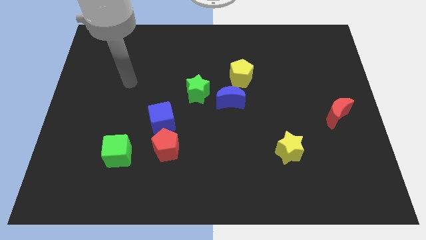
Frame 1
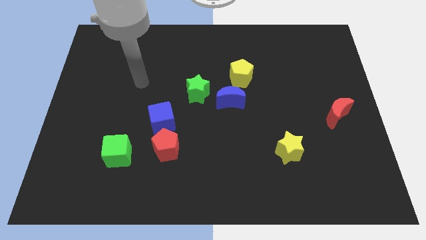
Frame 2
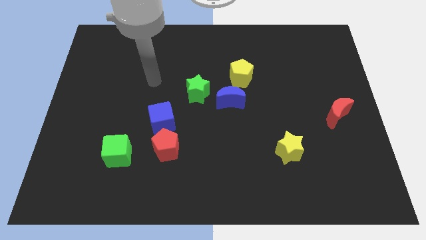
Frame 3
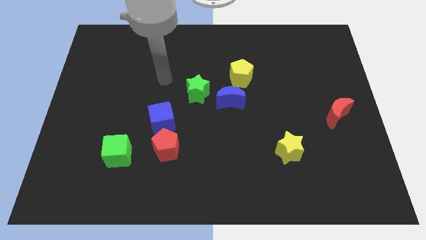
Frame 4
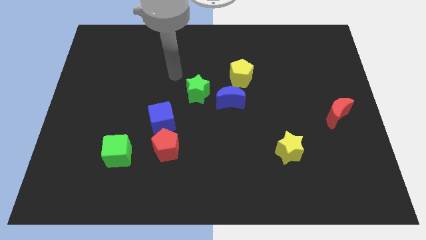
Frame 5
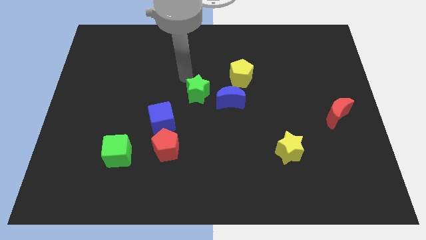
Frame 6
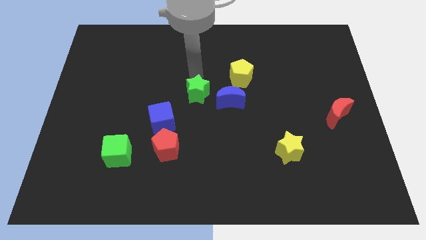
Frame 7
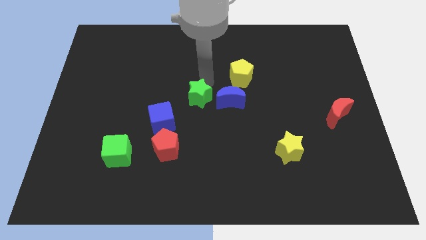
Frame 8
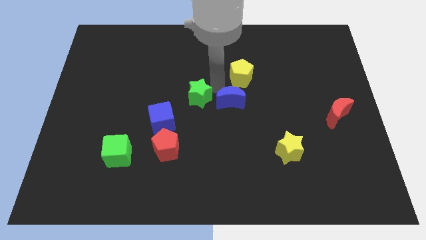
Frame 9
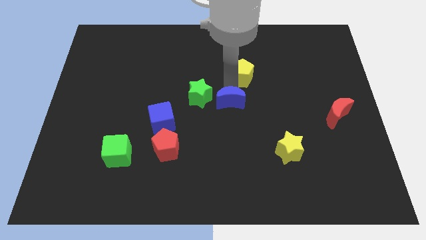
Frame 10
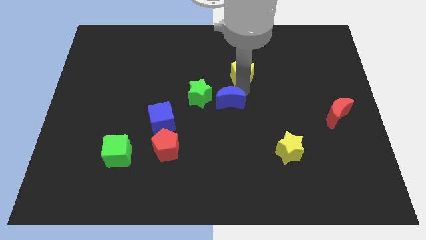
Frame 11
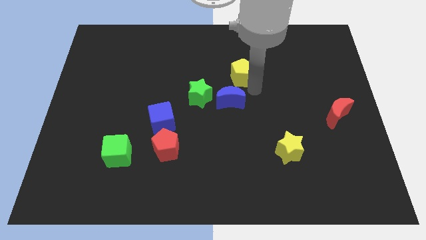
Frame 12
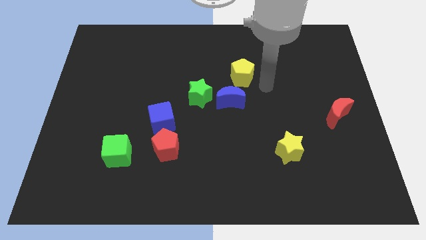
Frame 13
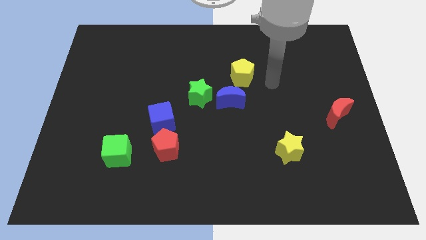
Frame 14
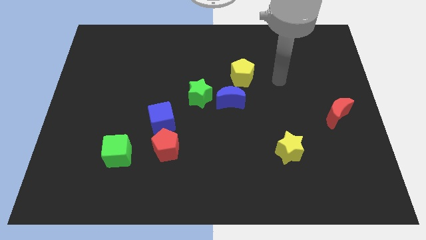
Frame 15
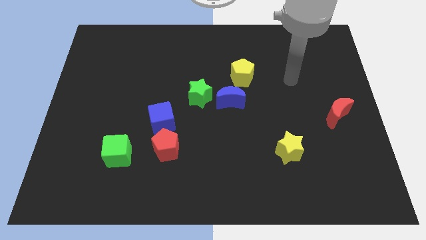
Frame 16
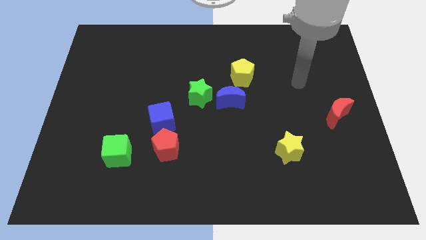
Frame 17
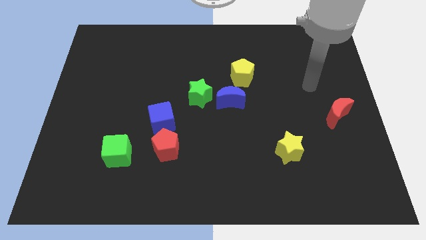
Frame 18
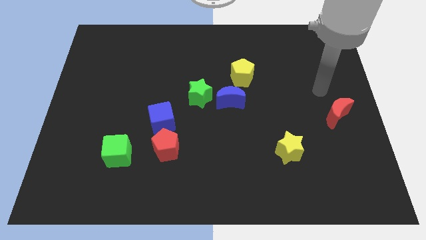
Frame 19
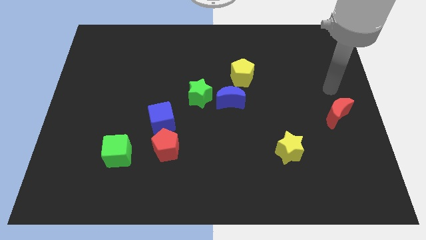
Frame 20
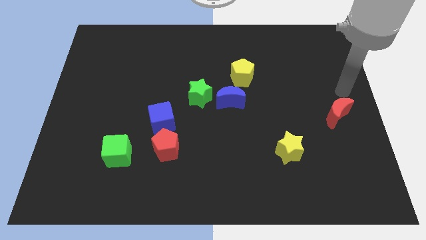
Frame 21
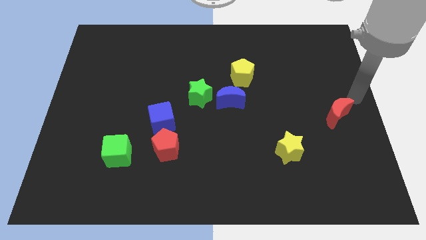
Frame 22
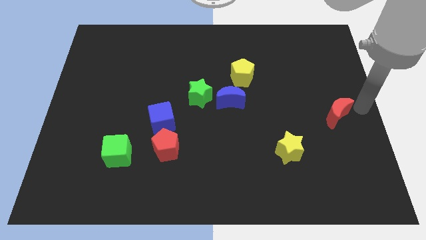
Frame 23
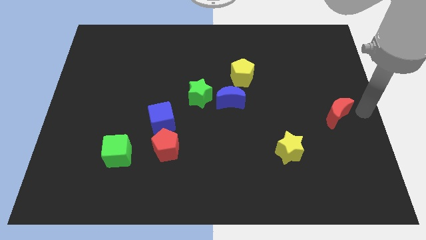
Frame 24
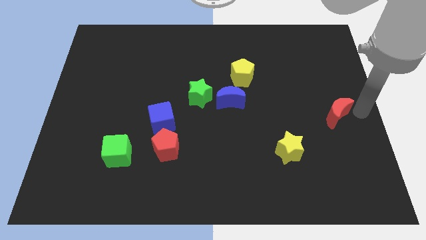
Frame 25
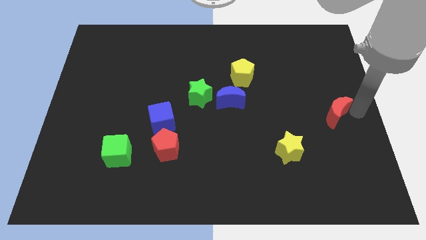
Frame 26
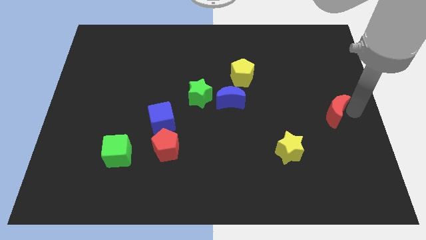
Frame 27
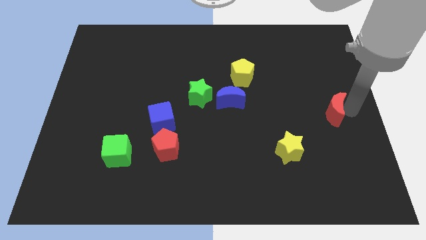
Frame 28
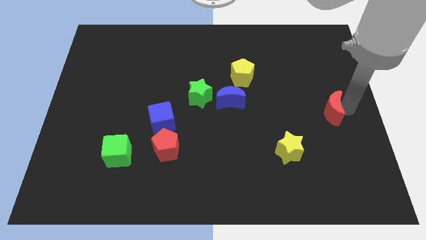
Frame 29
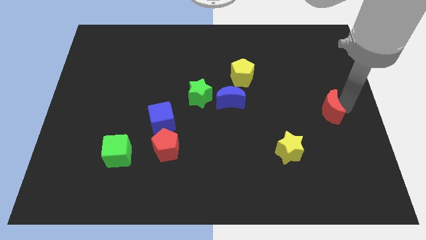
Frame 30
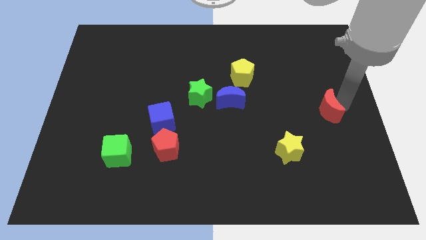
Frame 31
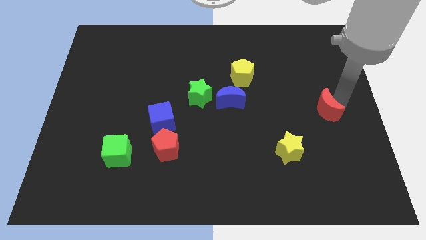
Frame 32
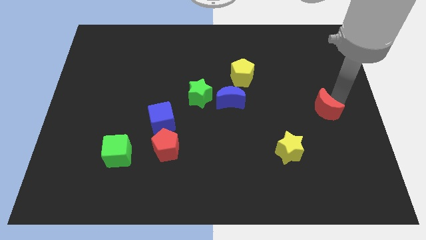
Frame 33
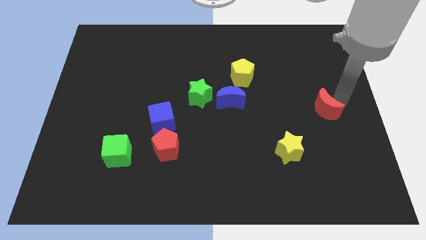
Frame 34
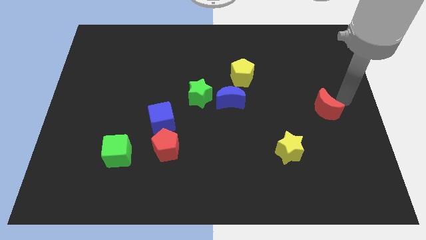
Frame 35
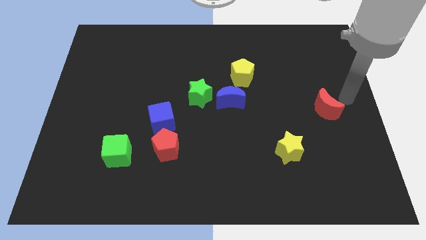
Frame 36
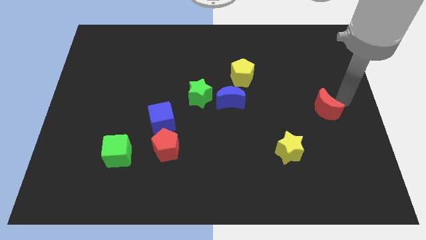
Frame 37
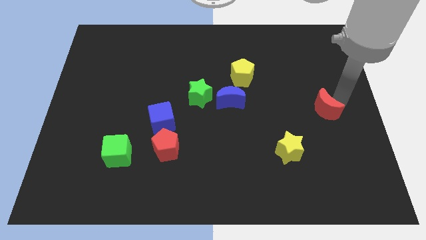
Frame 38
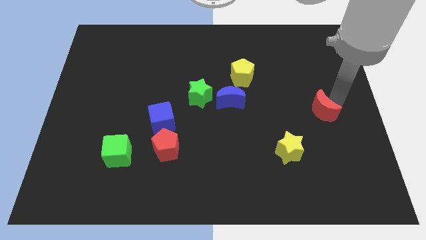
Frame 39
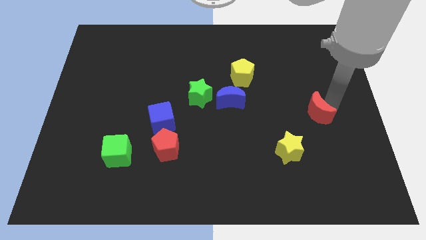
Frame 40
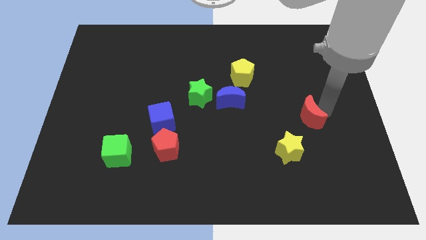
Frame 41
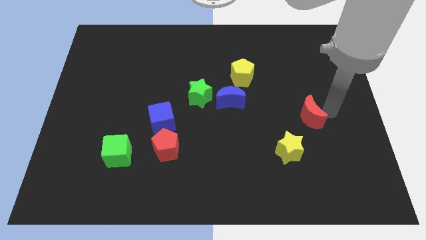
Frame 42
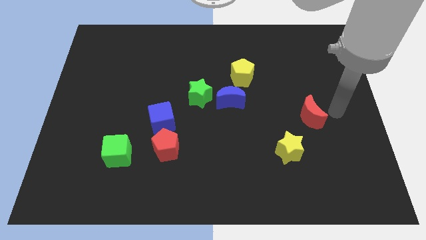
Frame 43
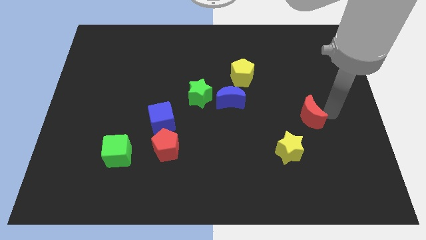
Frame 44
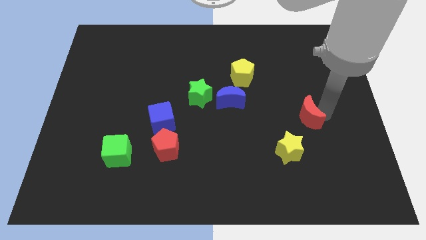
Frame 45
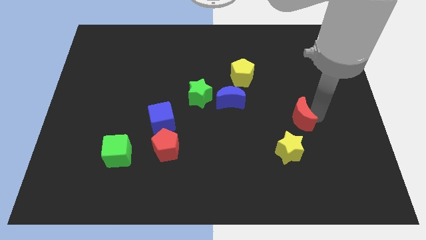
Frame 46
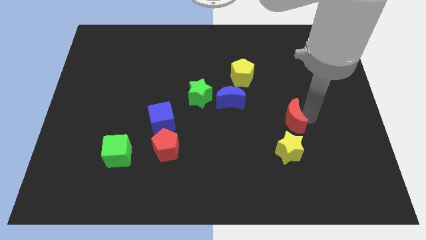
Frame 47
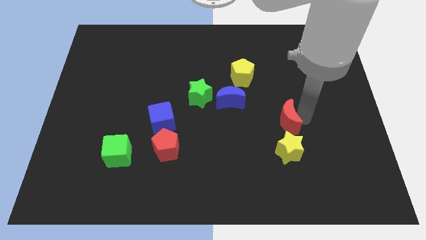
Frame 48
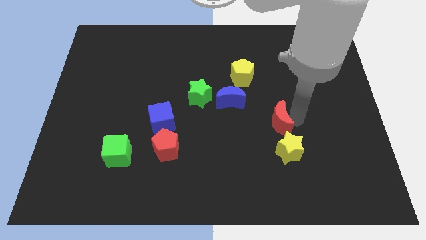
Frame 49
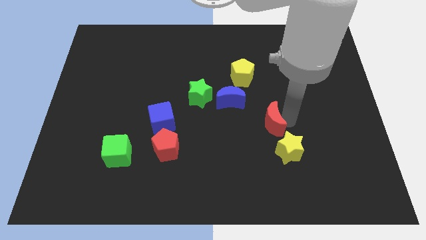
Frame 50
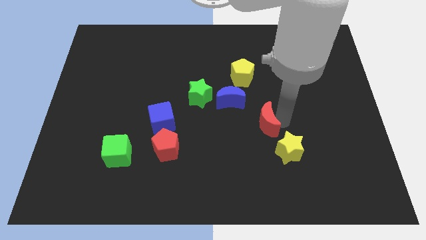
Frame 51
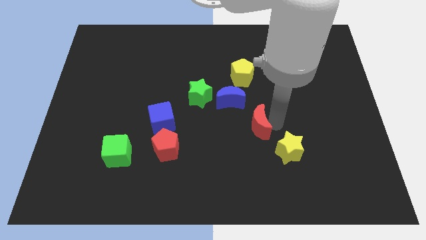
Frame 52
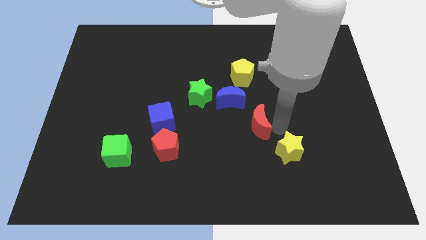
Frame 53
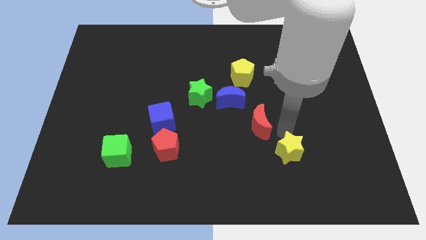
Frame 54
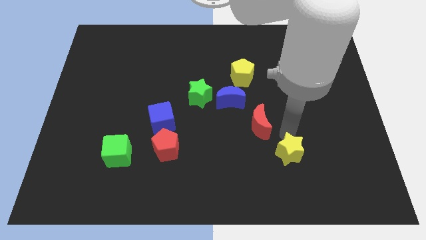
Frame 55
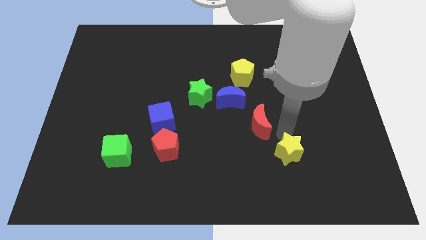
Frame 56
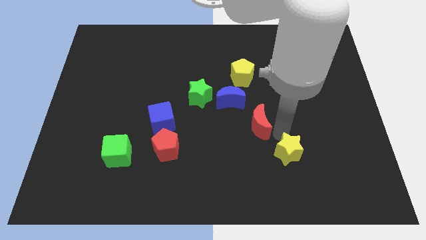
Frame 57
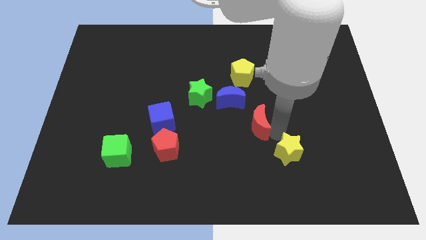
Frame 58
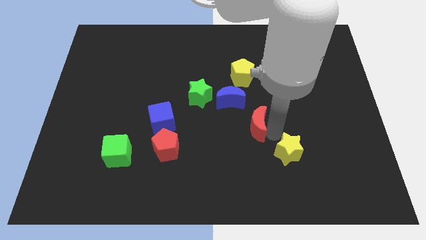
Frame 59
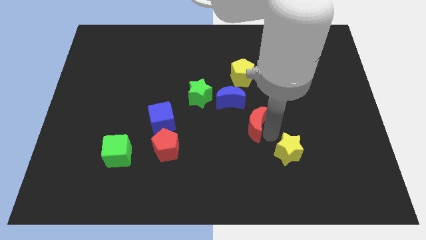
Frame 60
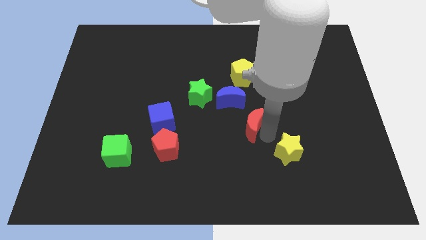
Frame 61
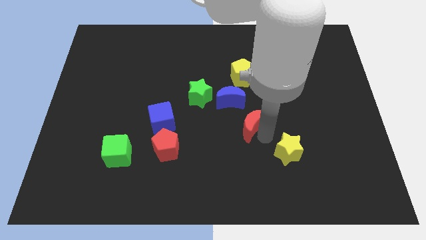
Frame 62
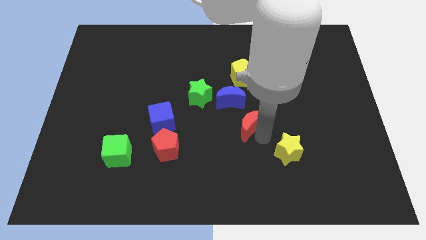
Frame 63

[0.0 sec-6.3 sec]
slide the red moon to the left

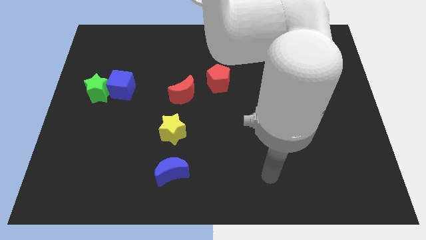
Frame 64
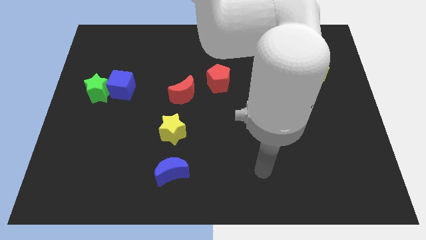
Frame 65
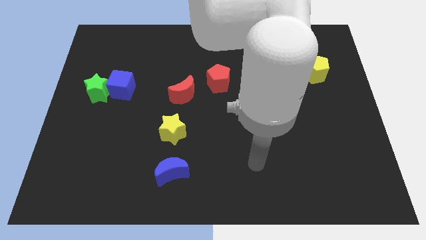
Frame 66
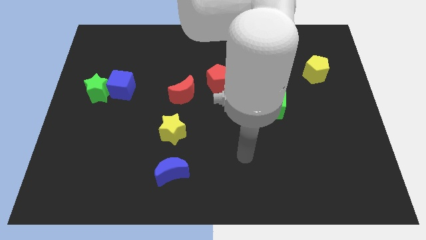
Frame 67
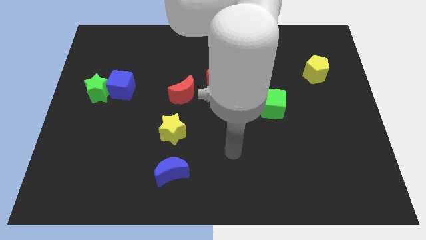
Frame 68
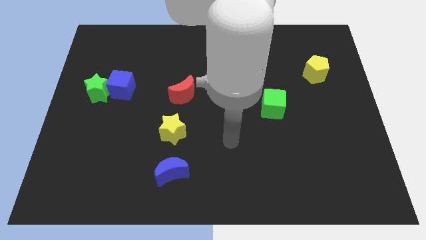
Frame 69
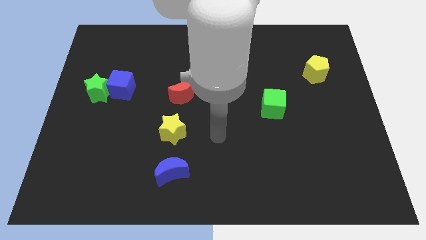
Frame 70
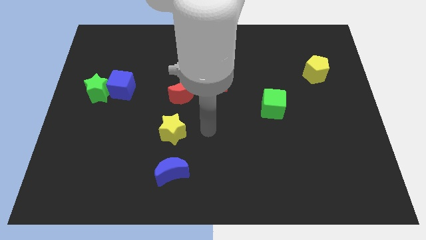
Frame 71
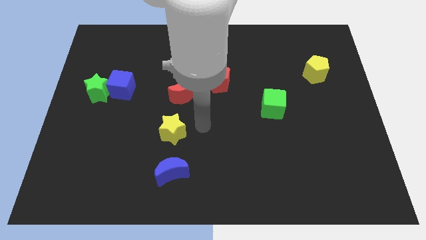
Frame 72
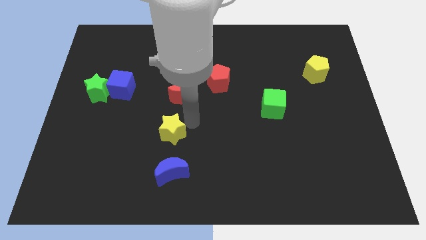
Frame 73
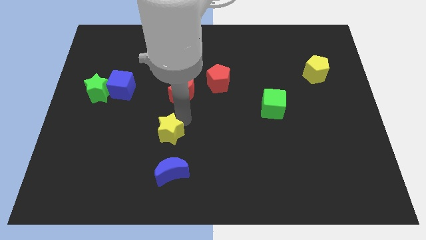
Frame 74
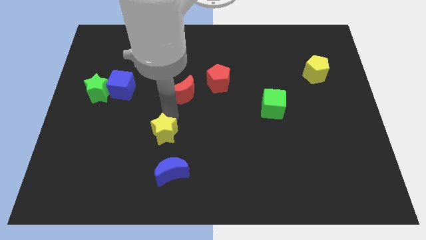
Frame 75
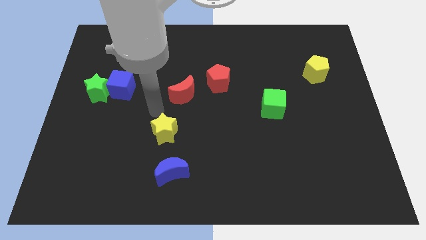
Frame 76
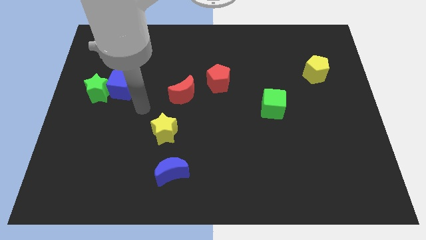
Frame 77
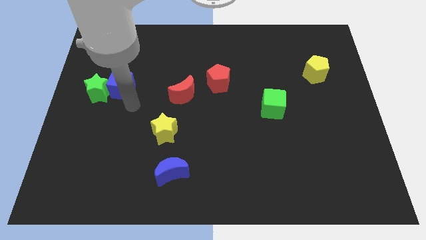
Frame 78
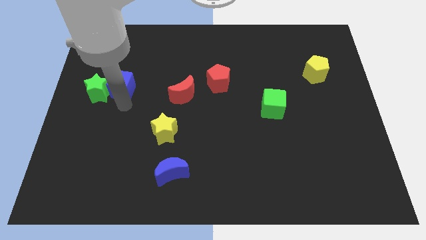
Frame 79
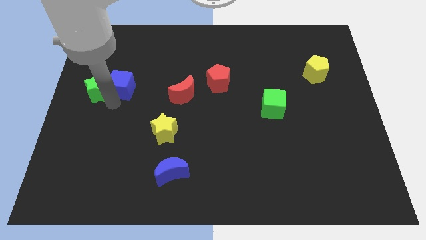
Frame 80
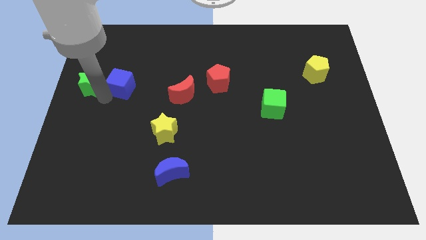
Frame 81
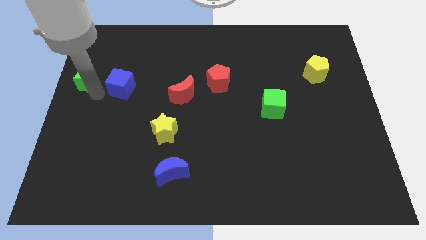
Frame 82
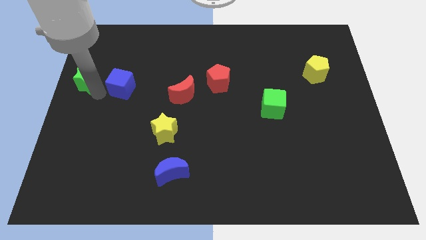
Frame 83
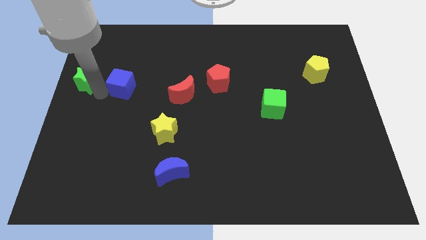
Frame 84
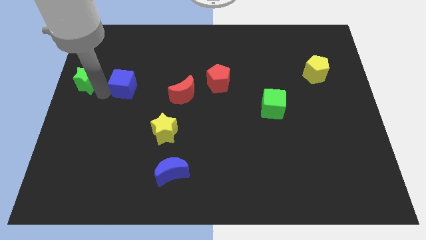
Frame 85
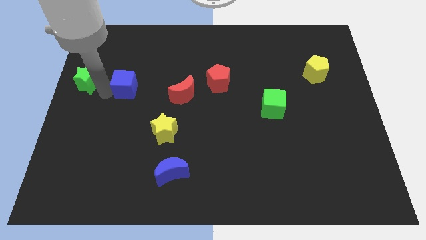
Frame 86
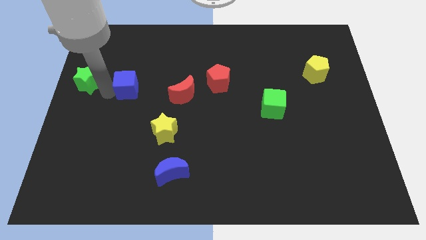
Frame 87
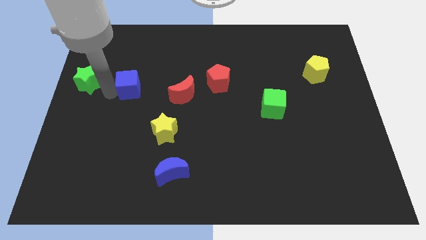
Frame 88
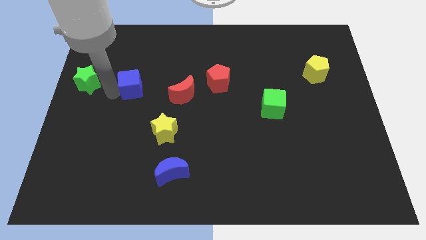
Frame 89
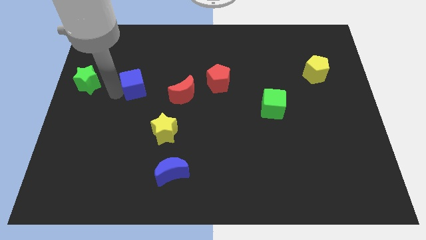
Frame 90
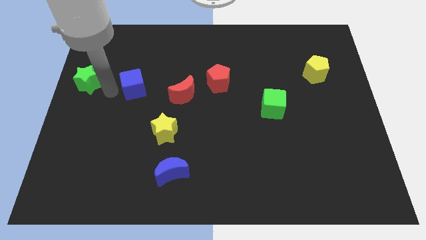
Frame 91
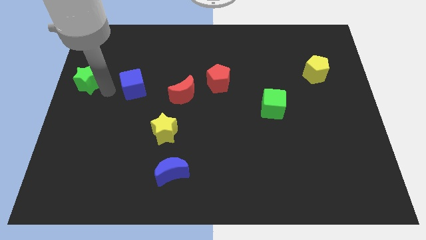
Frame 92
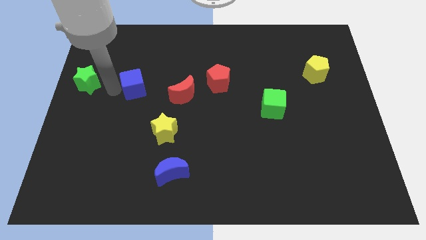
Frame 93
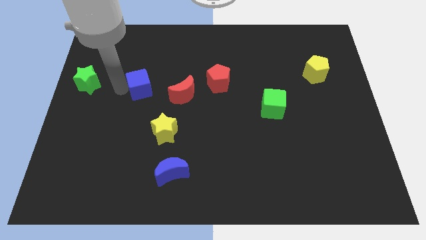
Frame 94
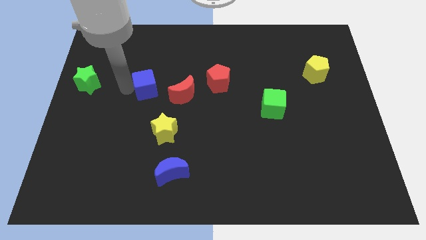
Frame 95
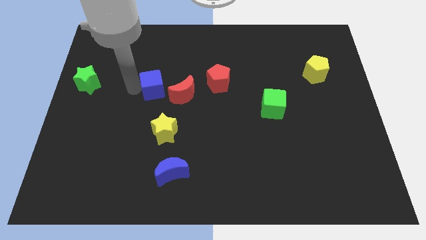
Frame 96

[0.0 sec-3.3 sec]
move the blue cube to the right a little
